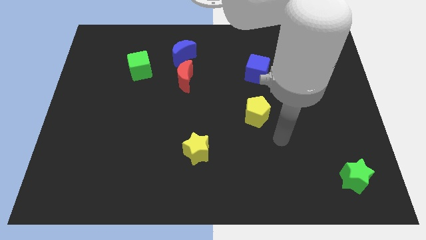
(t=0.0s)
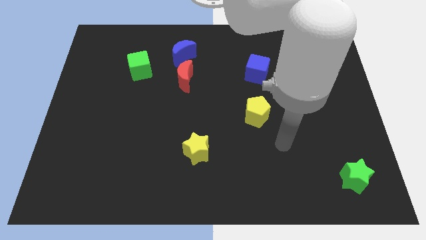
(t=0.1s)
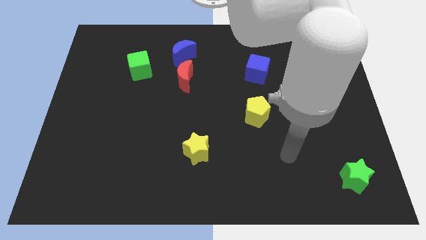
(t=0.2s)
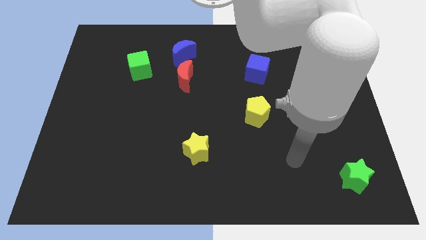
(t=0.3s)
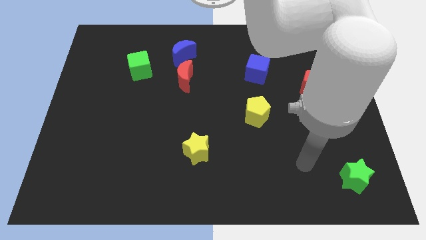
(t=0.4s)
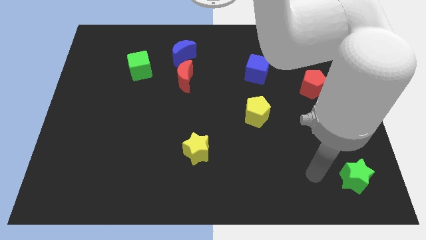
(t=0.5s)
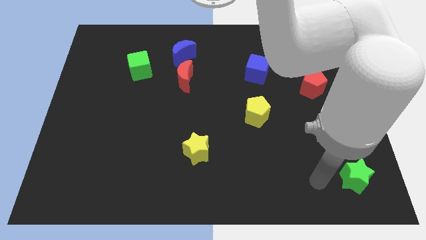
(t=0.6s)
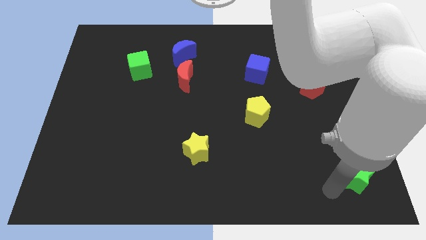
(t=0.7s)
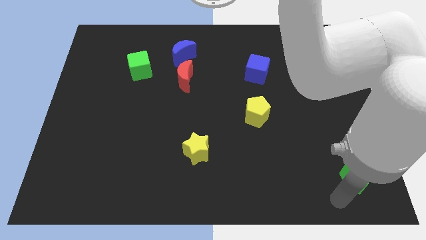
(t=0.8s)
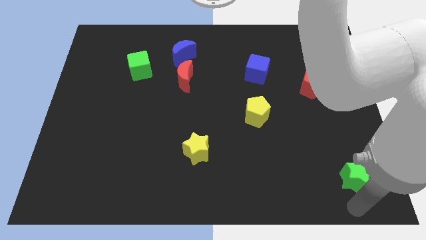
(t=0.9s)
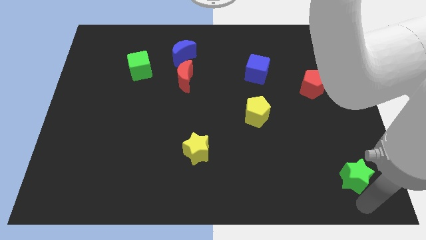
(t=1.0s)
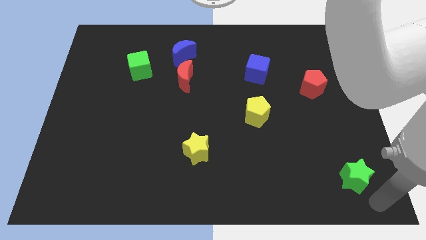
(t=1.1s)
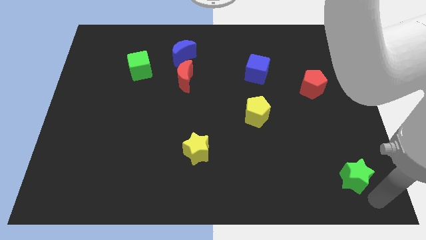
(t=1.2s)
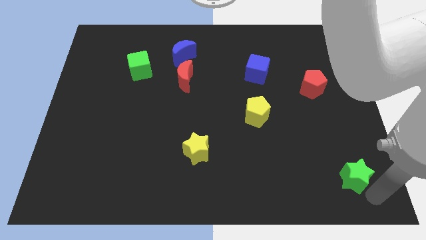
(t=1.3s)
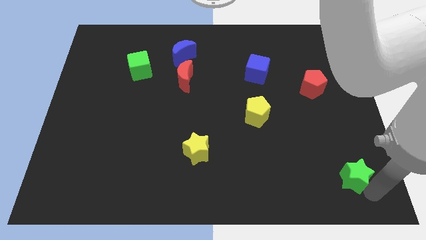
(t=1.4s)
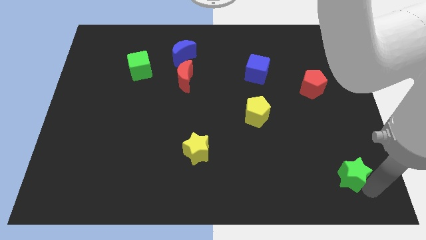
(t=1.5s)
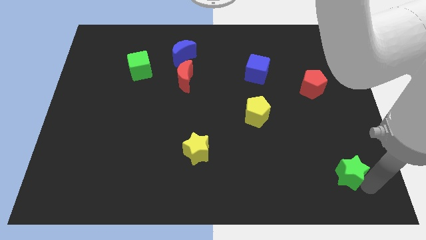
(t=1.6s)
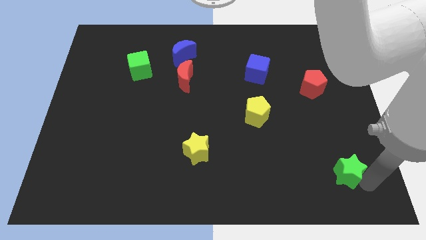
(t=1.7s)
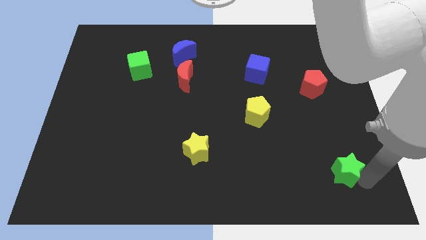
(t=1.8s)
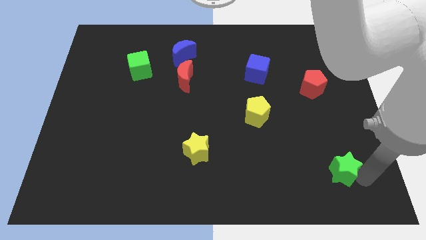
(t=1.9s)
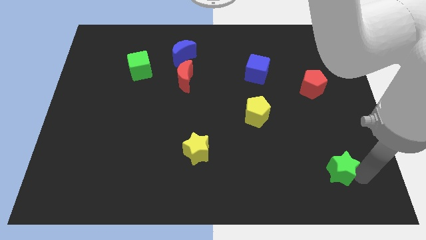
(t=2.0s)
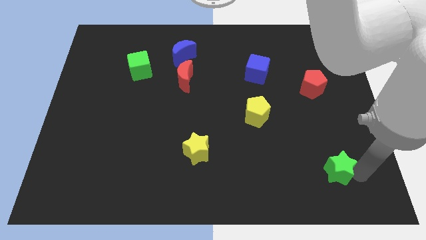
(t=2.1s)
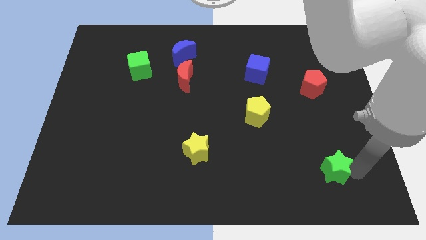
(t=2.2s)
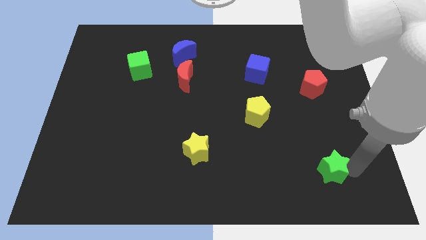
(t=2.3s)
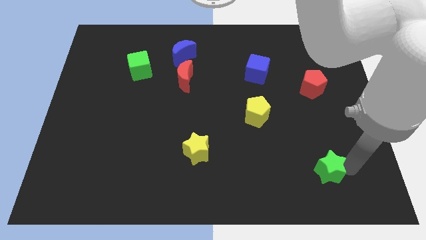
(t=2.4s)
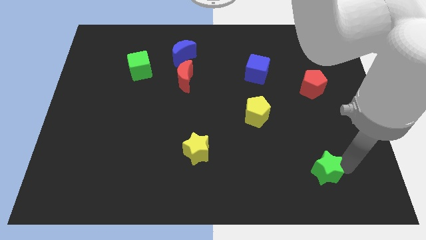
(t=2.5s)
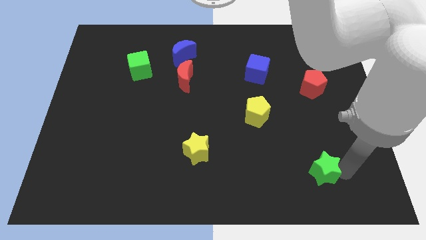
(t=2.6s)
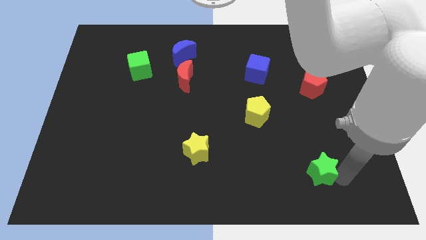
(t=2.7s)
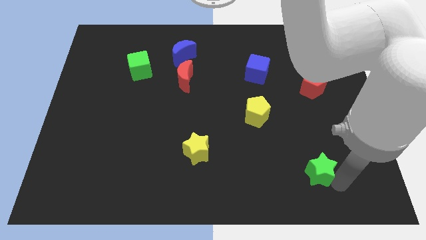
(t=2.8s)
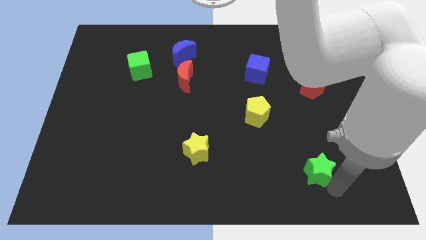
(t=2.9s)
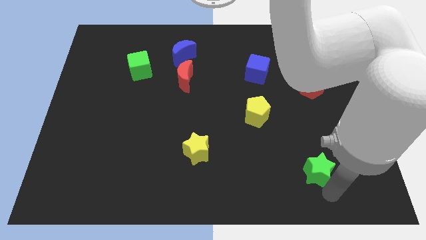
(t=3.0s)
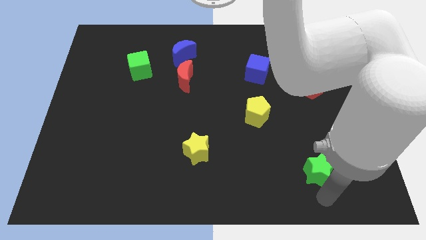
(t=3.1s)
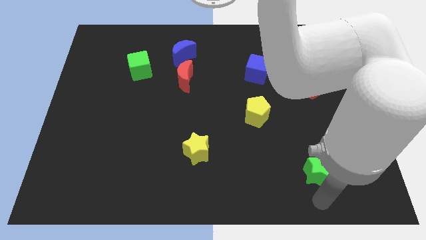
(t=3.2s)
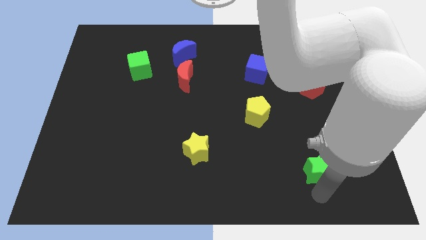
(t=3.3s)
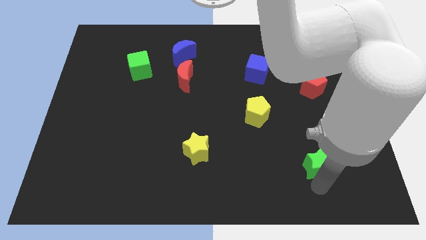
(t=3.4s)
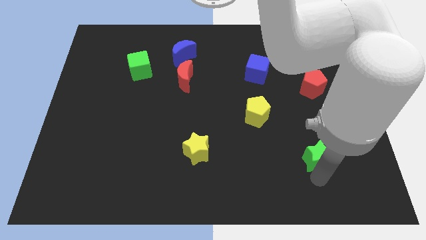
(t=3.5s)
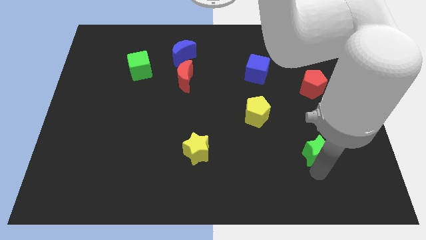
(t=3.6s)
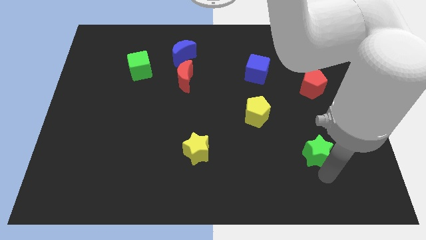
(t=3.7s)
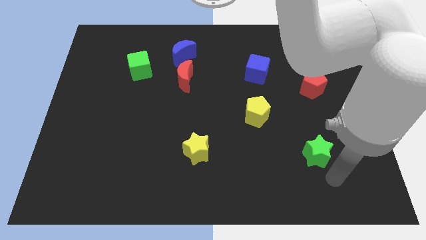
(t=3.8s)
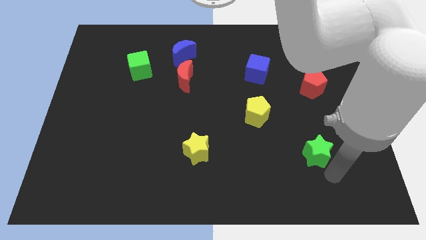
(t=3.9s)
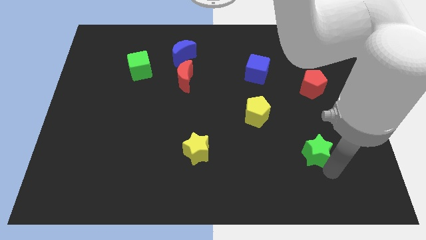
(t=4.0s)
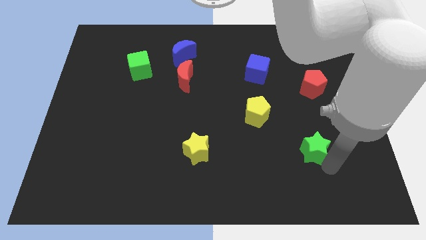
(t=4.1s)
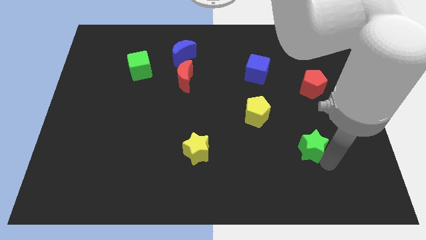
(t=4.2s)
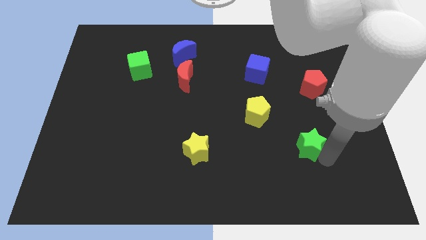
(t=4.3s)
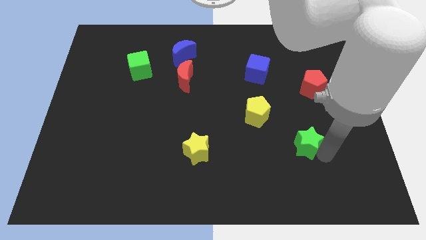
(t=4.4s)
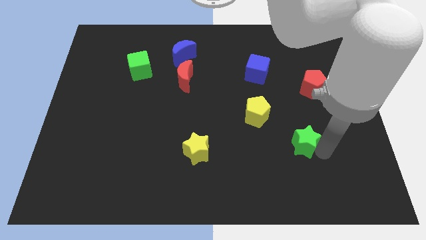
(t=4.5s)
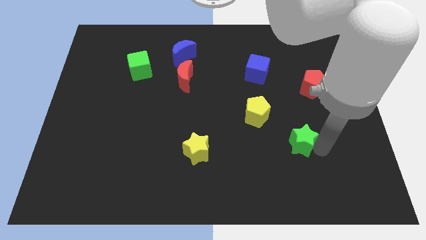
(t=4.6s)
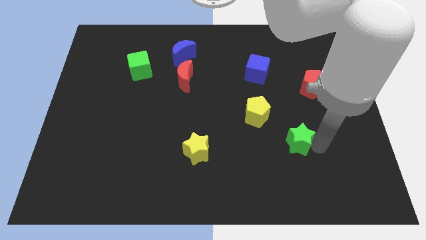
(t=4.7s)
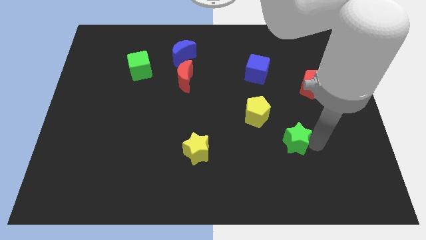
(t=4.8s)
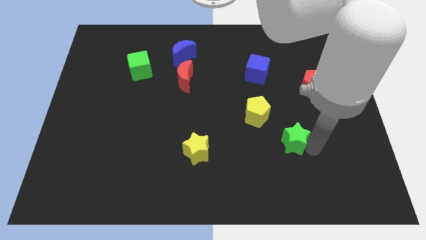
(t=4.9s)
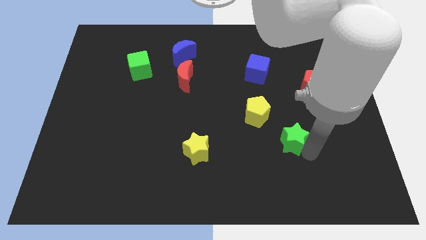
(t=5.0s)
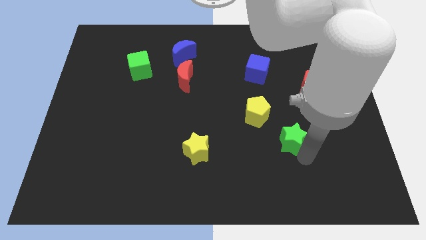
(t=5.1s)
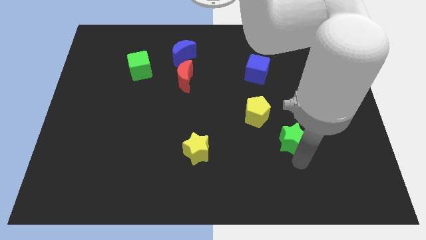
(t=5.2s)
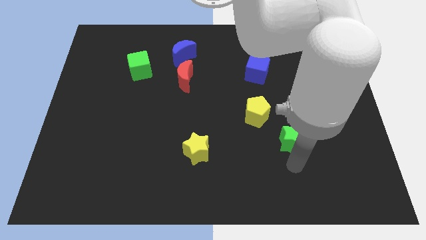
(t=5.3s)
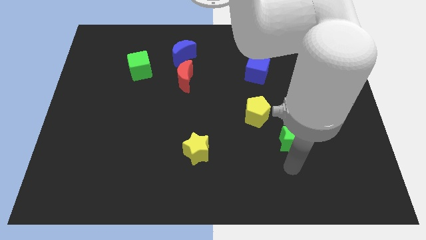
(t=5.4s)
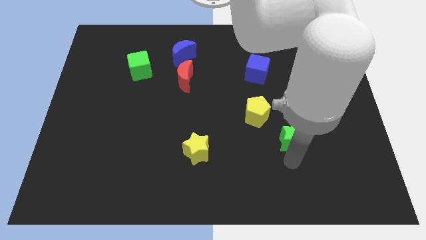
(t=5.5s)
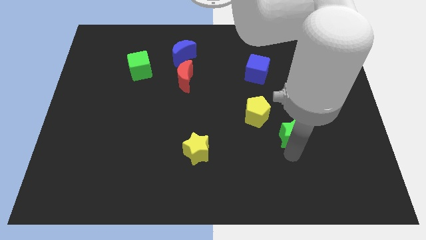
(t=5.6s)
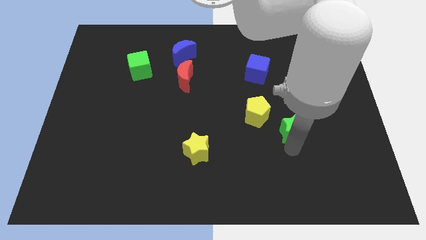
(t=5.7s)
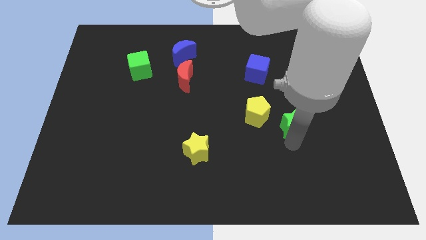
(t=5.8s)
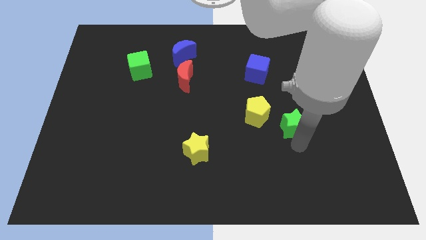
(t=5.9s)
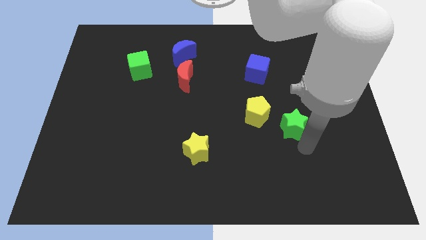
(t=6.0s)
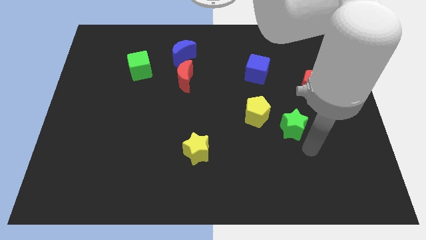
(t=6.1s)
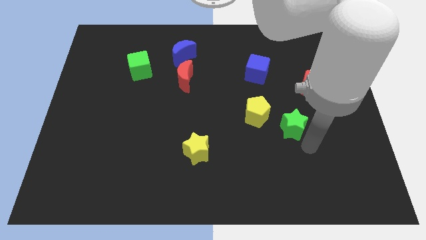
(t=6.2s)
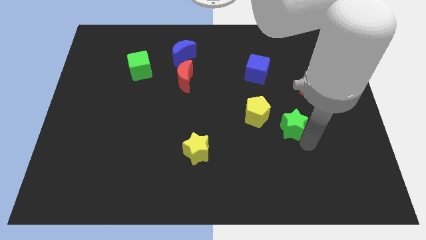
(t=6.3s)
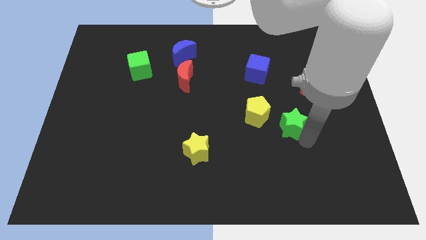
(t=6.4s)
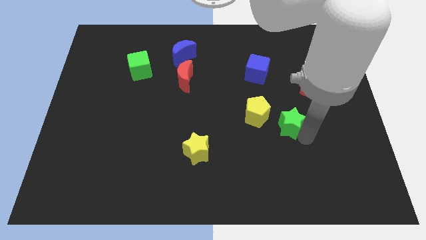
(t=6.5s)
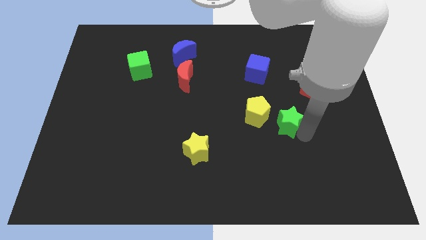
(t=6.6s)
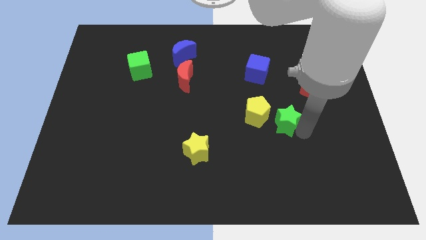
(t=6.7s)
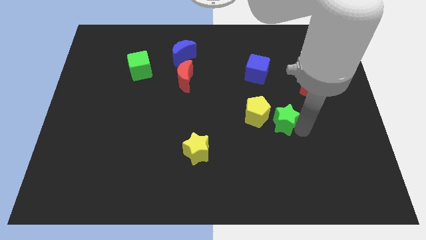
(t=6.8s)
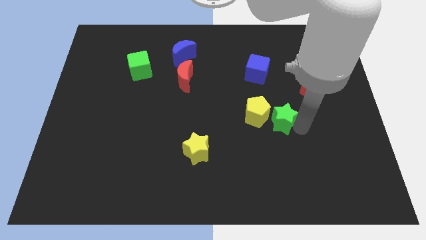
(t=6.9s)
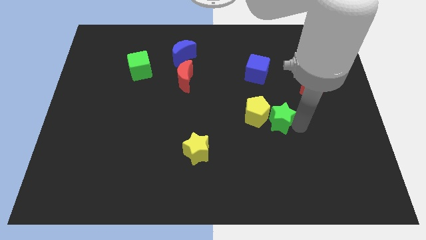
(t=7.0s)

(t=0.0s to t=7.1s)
push the green star upwards and to the left

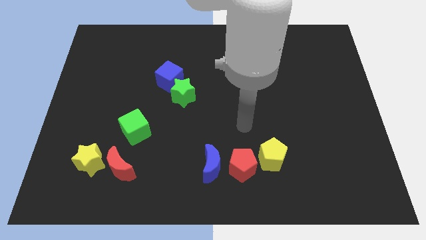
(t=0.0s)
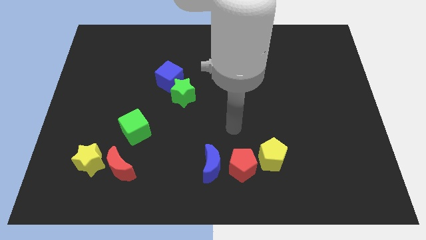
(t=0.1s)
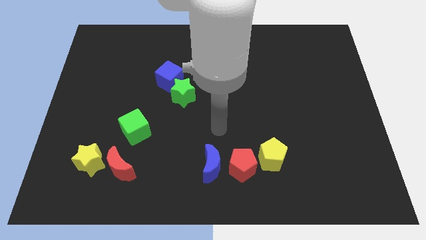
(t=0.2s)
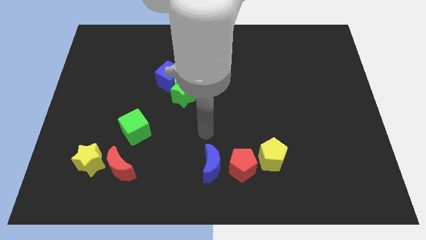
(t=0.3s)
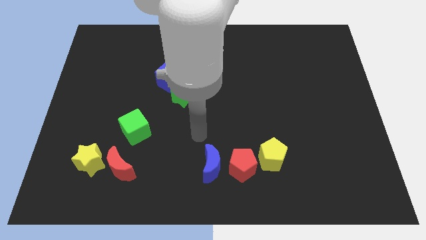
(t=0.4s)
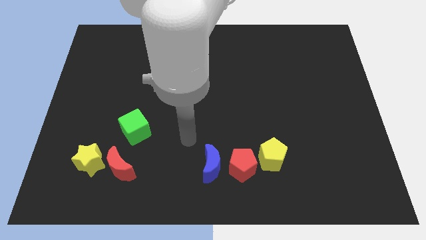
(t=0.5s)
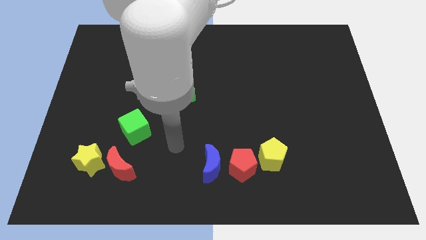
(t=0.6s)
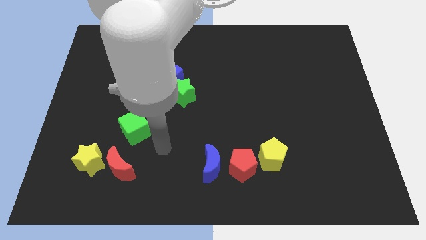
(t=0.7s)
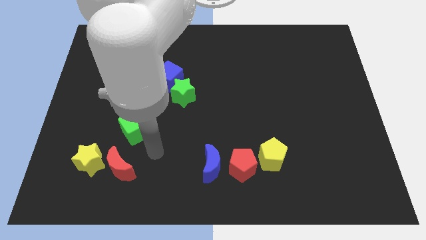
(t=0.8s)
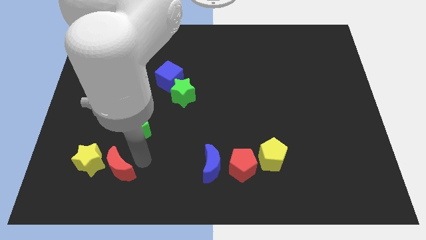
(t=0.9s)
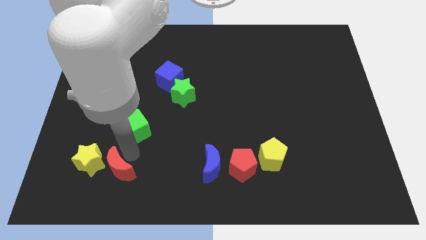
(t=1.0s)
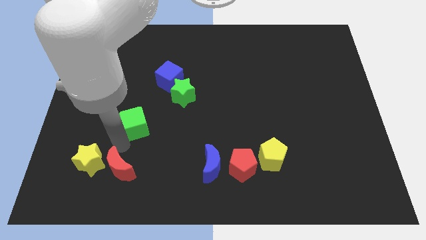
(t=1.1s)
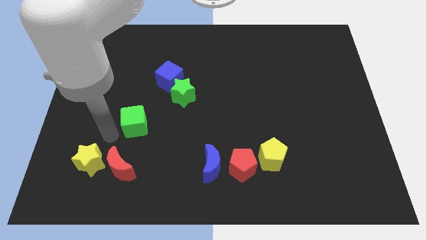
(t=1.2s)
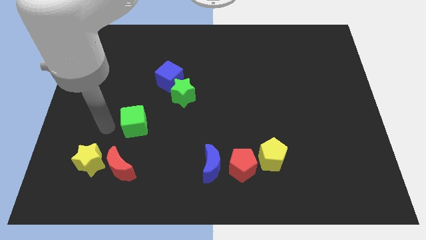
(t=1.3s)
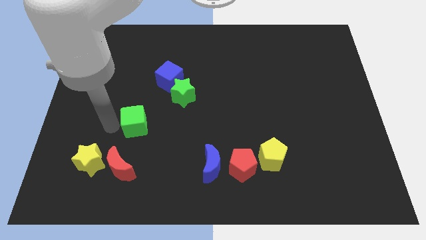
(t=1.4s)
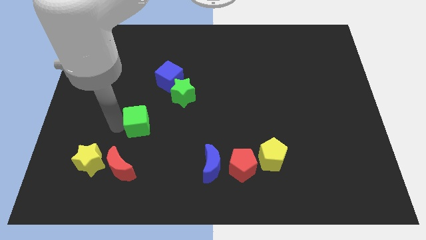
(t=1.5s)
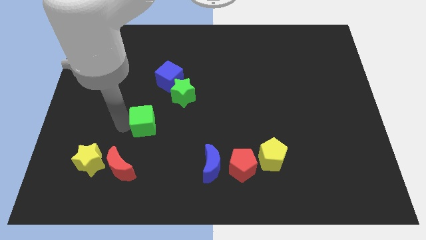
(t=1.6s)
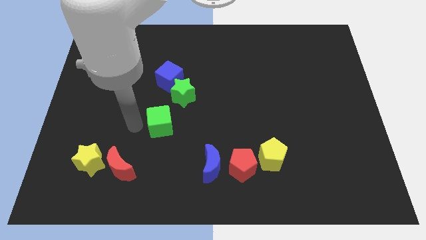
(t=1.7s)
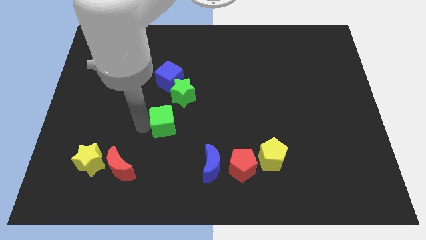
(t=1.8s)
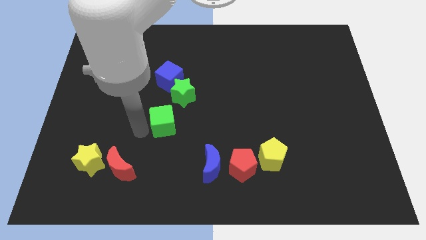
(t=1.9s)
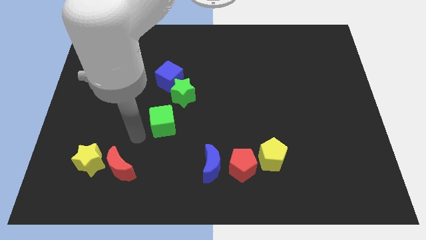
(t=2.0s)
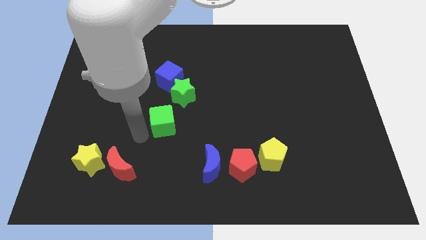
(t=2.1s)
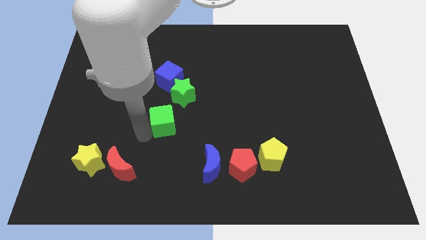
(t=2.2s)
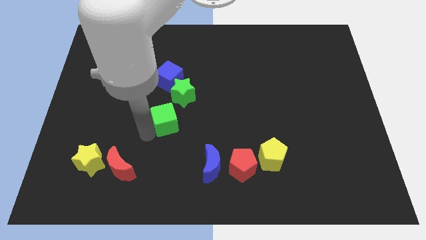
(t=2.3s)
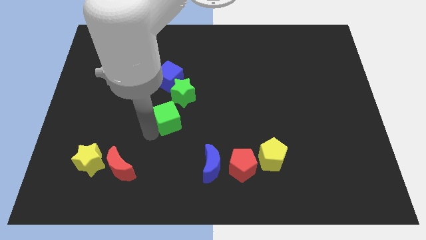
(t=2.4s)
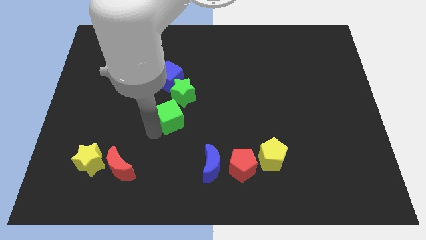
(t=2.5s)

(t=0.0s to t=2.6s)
slightly move the green cube upwards and right
